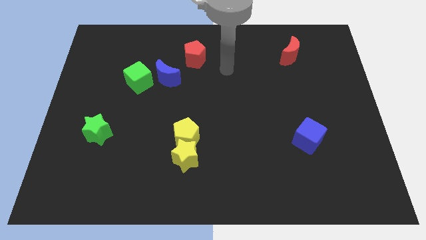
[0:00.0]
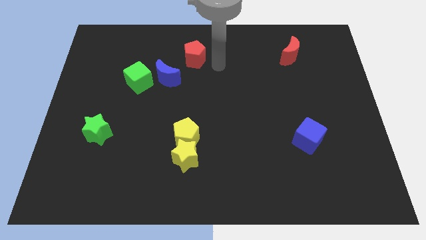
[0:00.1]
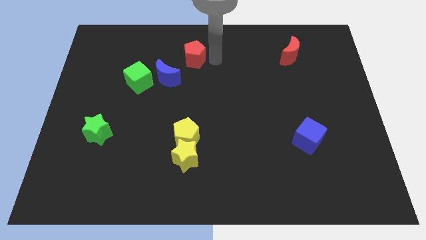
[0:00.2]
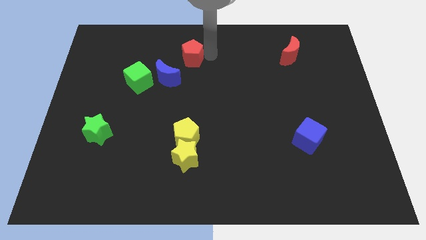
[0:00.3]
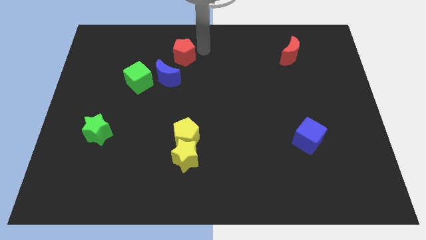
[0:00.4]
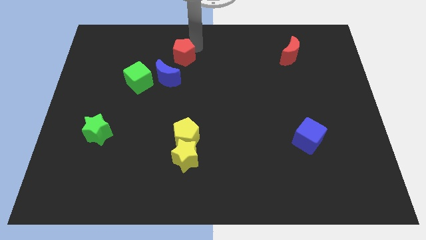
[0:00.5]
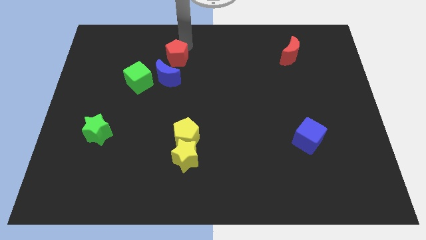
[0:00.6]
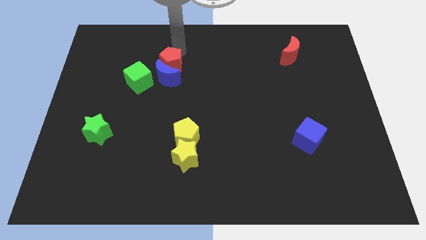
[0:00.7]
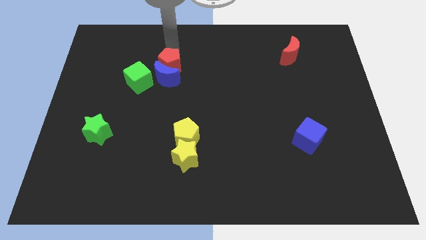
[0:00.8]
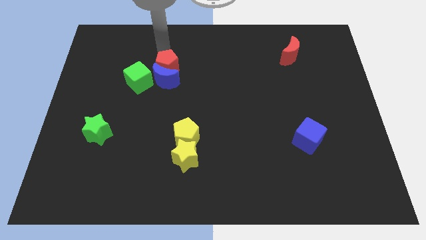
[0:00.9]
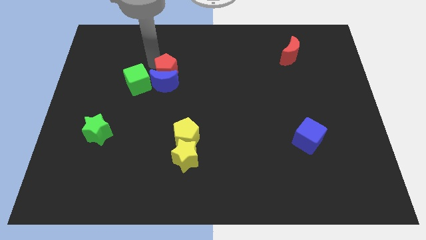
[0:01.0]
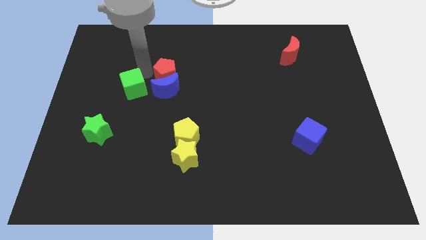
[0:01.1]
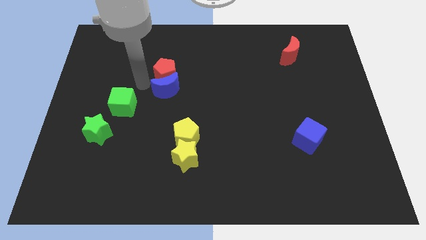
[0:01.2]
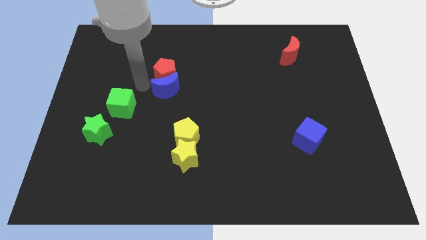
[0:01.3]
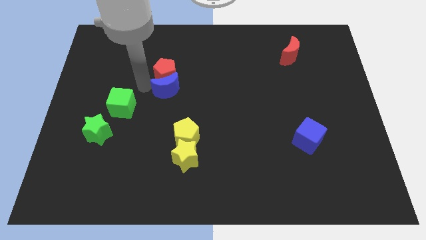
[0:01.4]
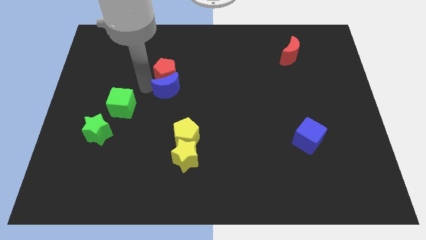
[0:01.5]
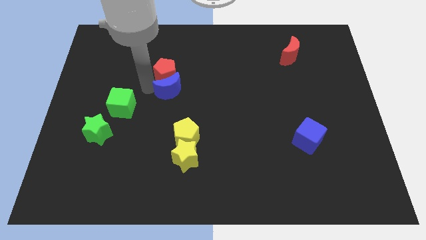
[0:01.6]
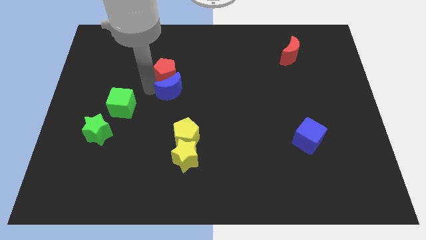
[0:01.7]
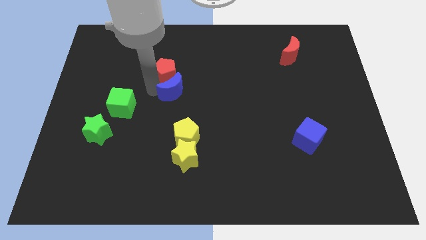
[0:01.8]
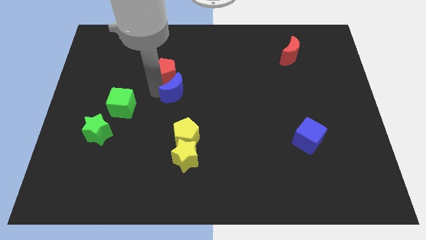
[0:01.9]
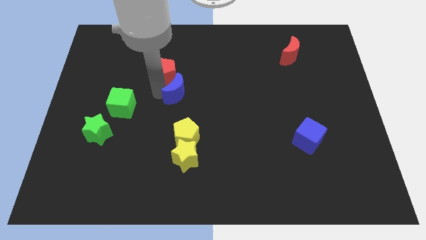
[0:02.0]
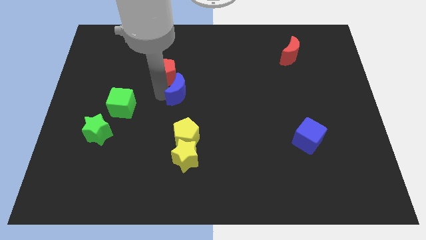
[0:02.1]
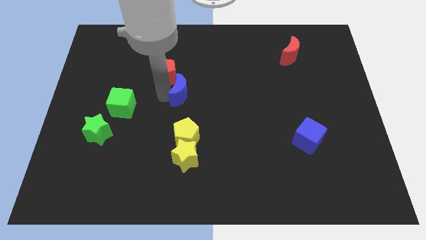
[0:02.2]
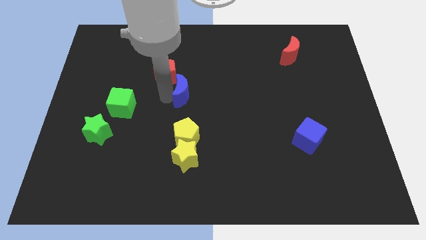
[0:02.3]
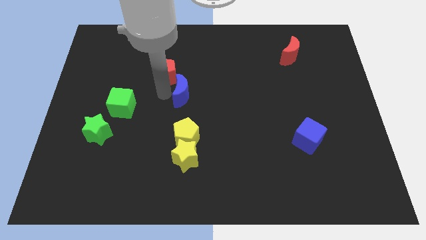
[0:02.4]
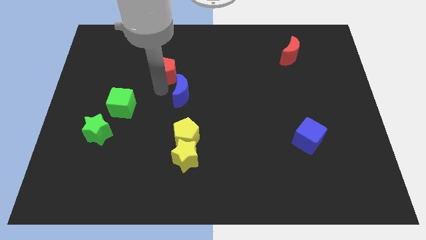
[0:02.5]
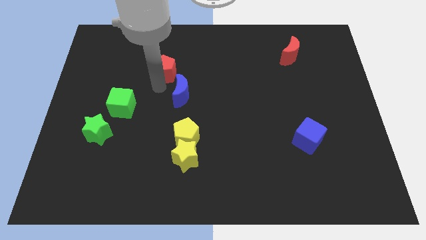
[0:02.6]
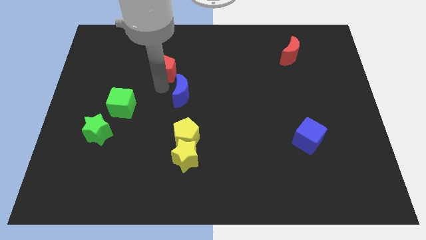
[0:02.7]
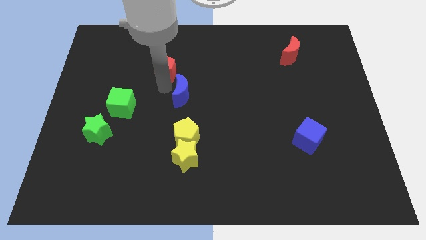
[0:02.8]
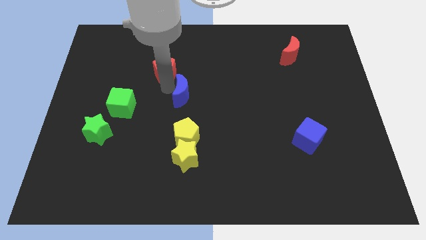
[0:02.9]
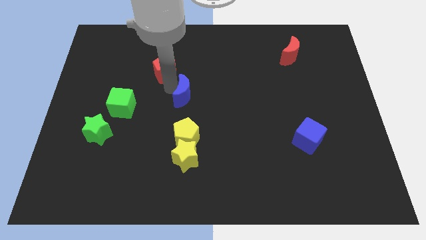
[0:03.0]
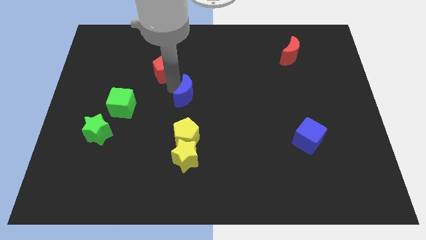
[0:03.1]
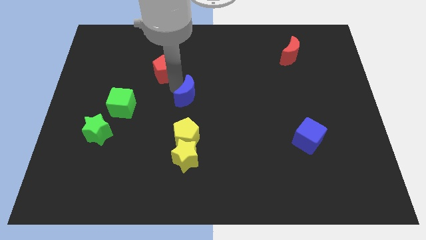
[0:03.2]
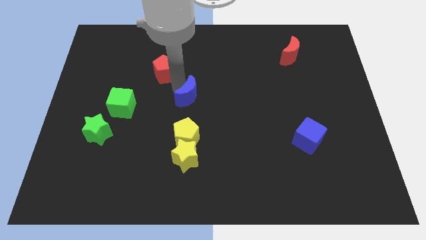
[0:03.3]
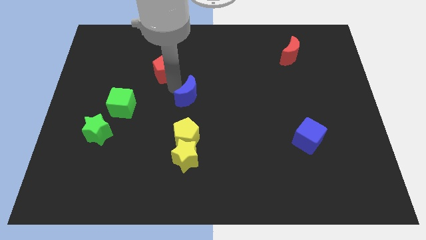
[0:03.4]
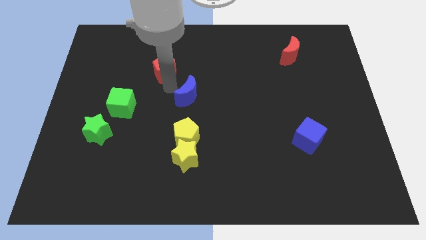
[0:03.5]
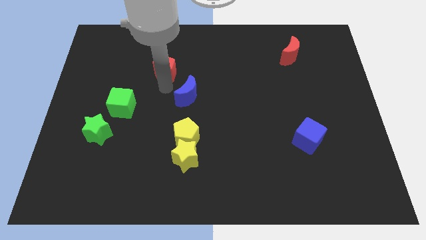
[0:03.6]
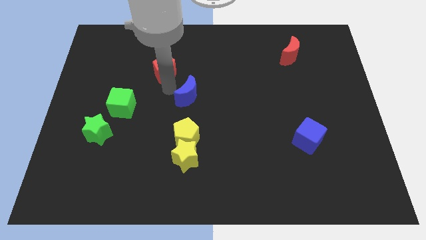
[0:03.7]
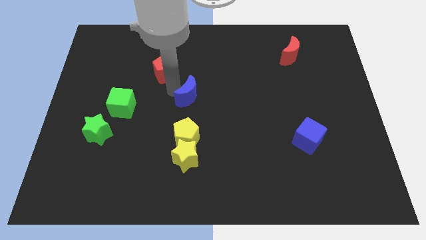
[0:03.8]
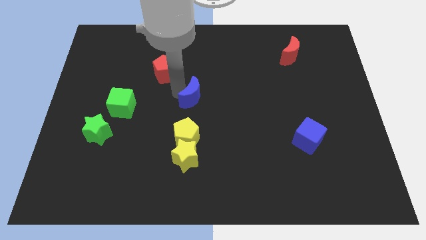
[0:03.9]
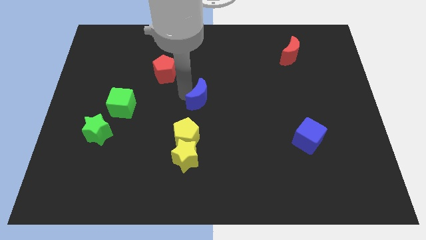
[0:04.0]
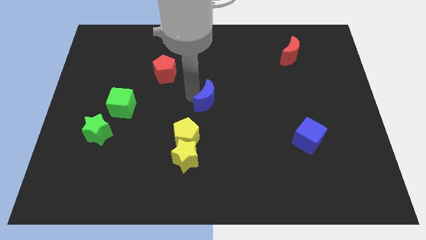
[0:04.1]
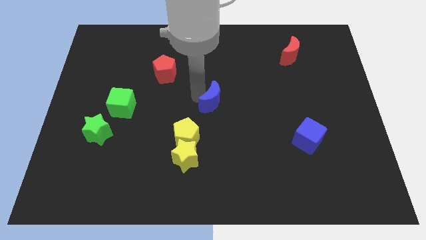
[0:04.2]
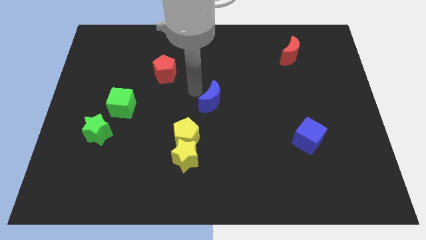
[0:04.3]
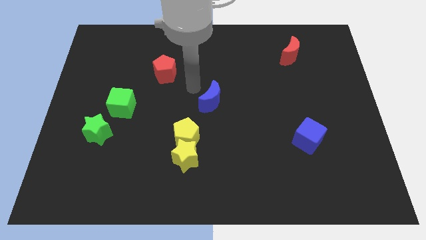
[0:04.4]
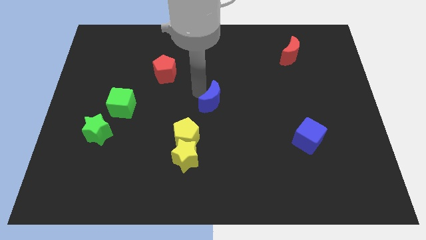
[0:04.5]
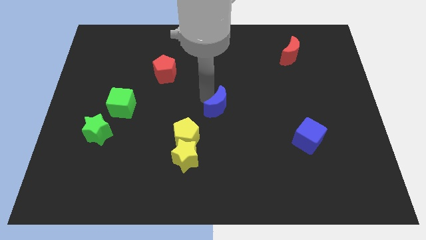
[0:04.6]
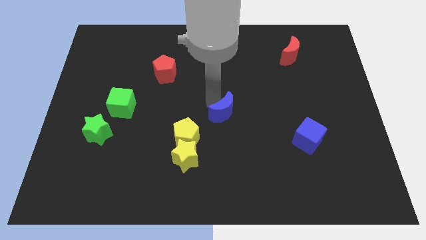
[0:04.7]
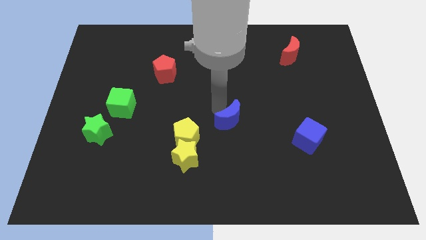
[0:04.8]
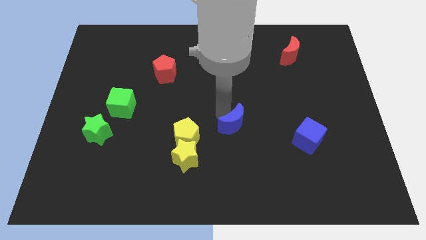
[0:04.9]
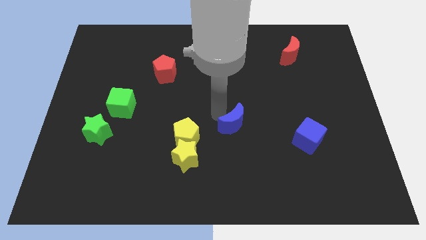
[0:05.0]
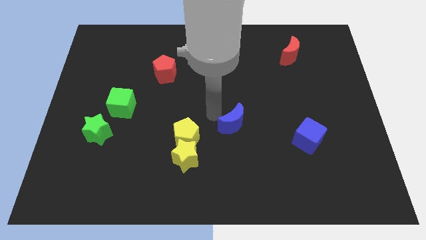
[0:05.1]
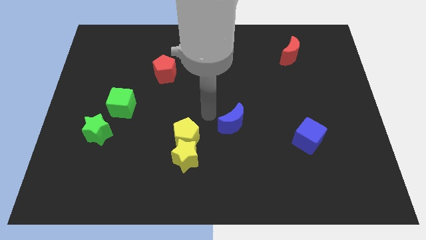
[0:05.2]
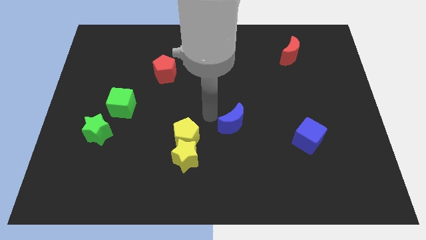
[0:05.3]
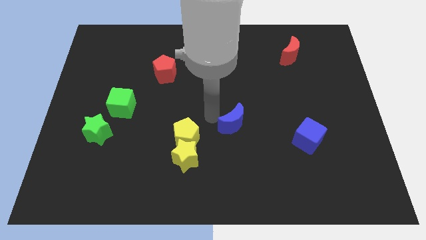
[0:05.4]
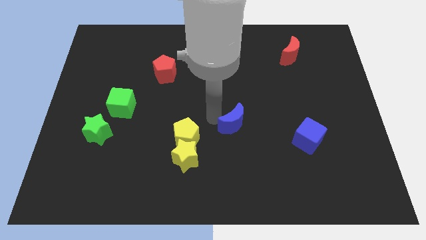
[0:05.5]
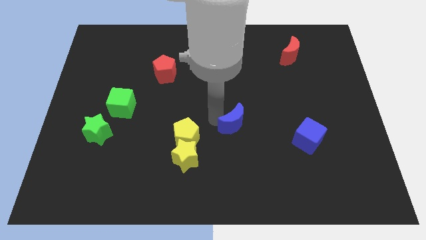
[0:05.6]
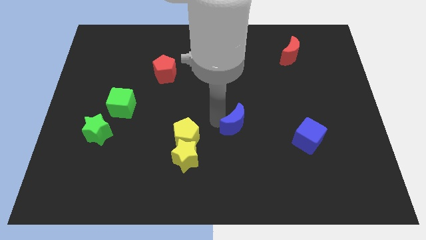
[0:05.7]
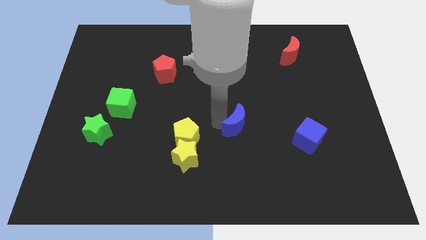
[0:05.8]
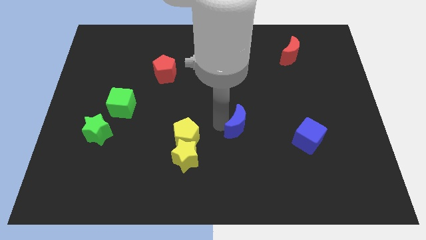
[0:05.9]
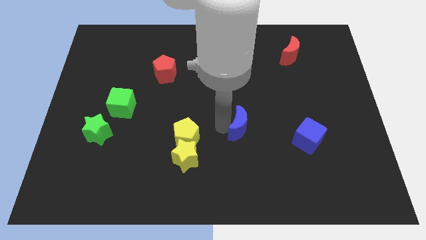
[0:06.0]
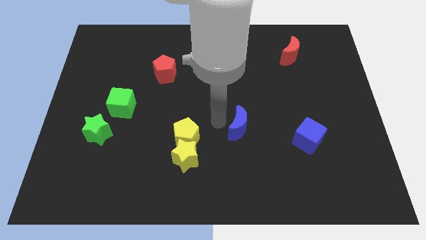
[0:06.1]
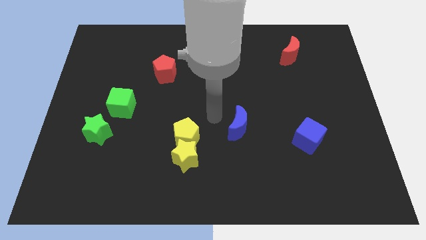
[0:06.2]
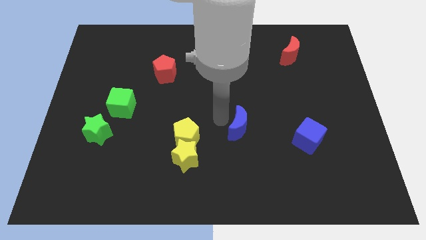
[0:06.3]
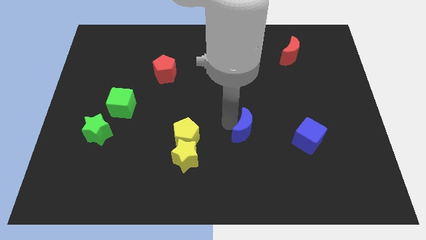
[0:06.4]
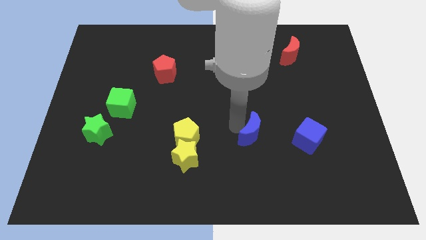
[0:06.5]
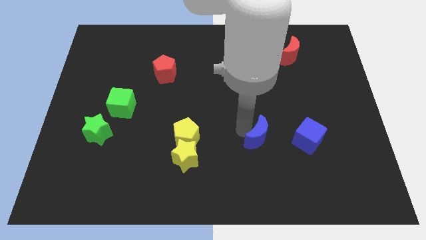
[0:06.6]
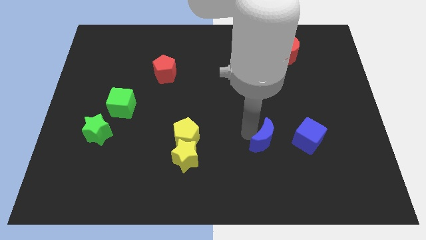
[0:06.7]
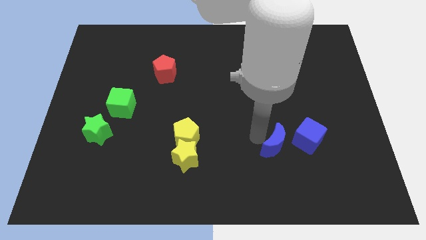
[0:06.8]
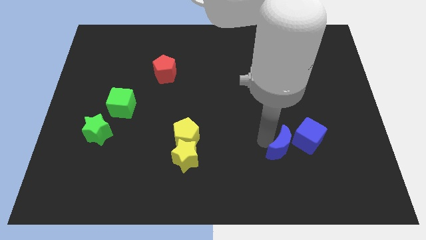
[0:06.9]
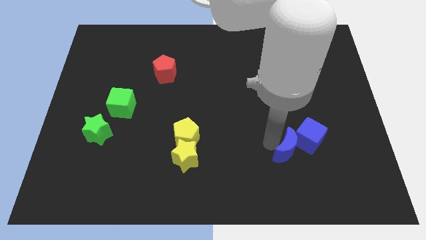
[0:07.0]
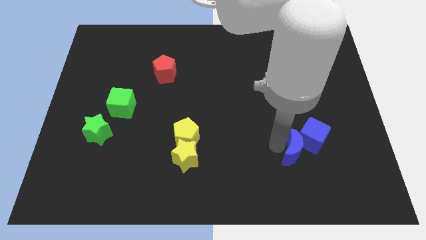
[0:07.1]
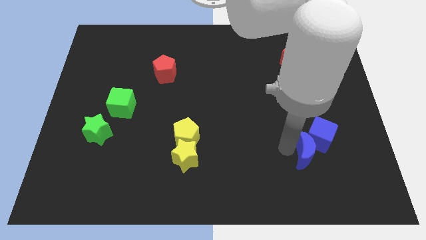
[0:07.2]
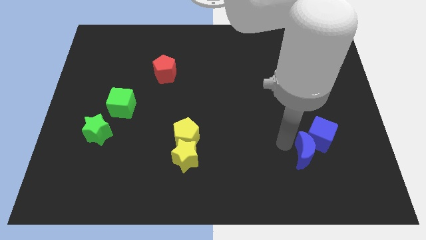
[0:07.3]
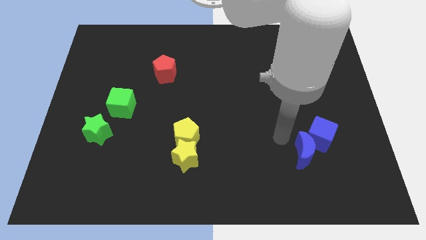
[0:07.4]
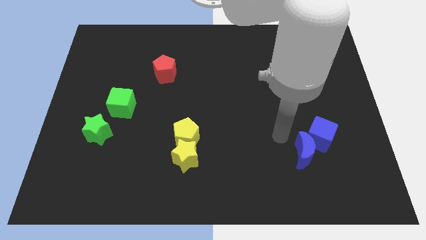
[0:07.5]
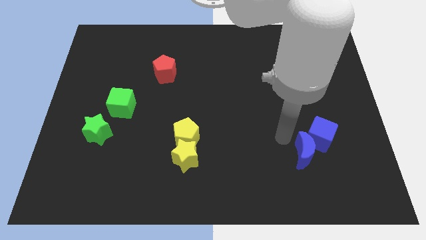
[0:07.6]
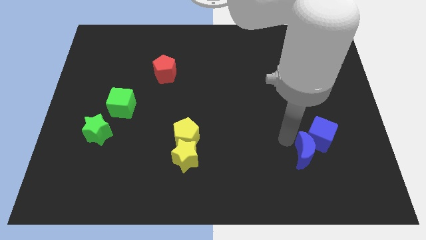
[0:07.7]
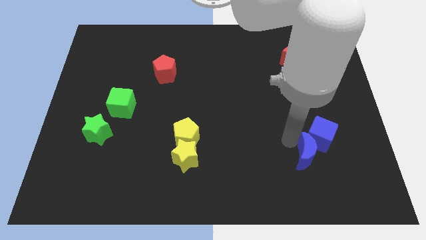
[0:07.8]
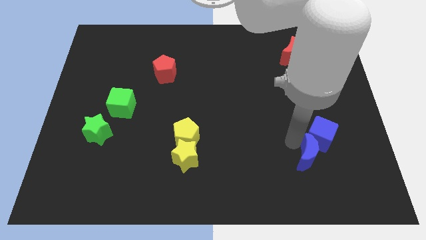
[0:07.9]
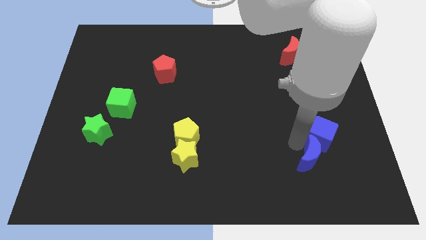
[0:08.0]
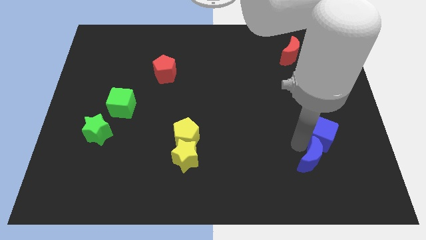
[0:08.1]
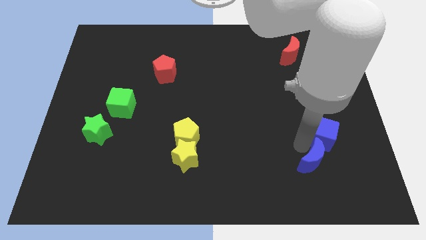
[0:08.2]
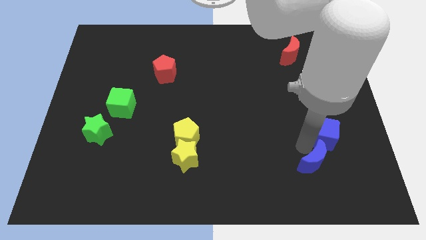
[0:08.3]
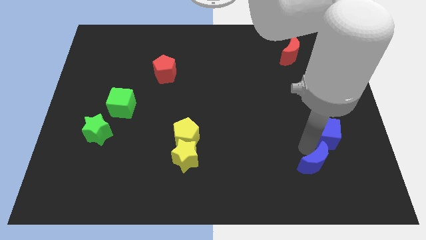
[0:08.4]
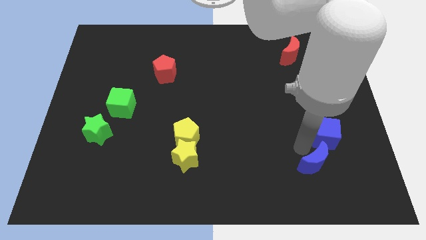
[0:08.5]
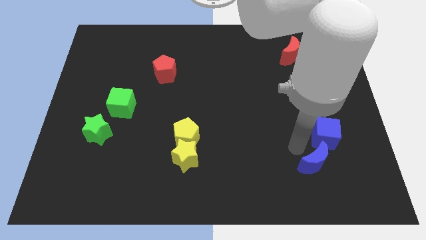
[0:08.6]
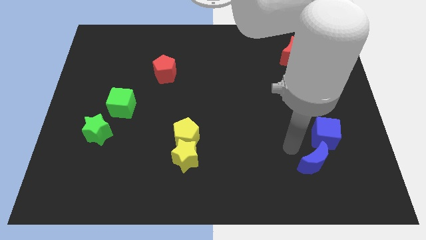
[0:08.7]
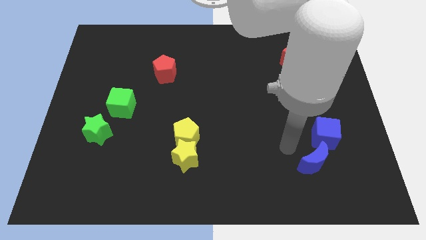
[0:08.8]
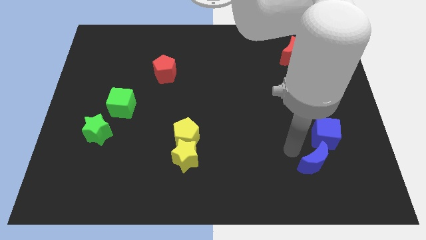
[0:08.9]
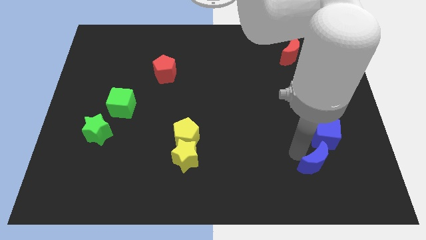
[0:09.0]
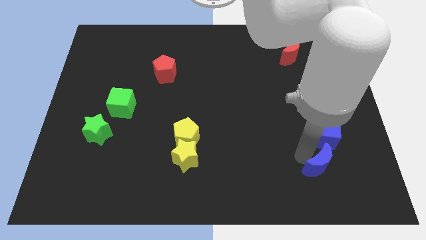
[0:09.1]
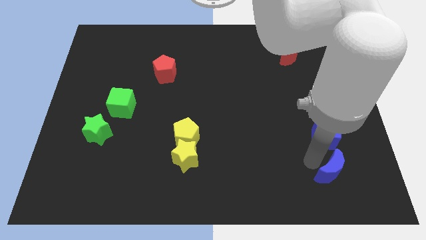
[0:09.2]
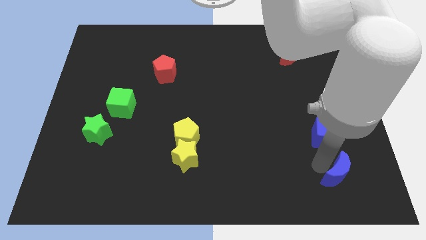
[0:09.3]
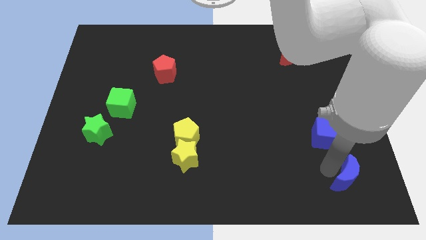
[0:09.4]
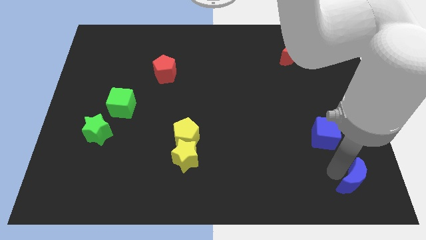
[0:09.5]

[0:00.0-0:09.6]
push the blue moon to the bottom right corner
